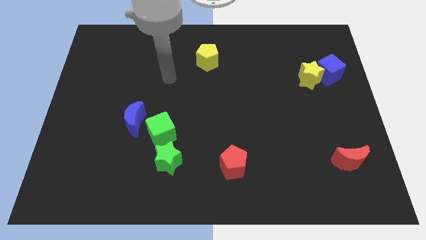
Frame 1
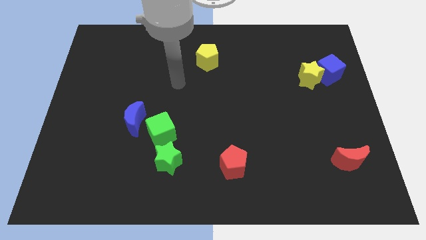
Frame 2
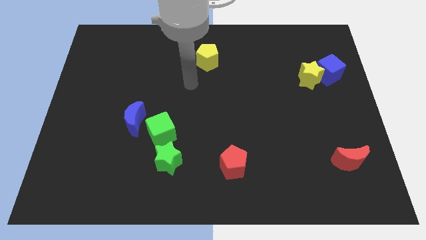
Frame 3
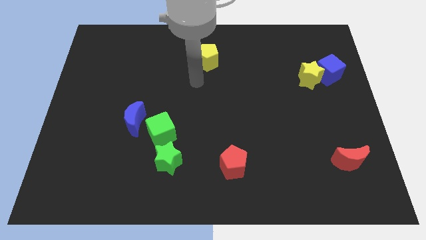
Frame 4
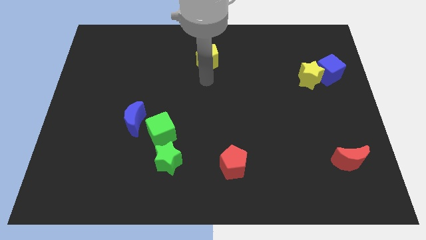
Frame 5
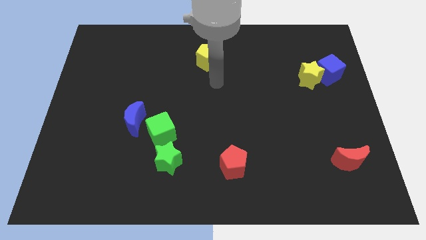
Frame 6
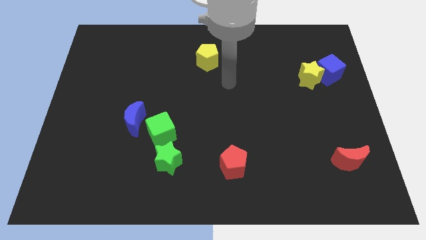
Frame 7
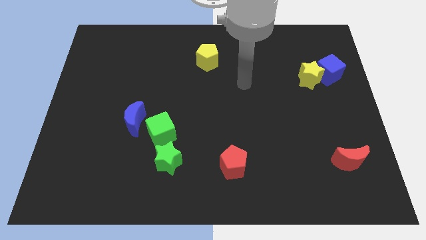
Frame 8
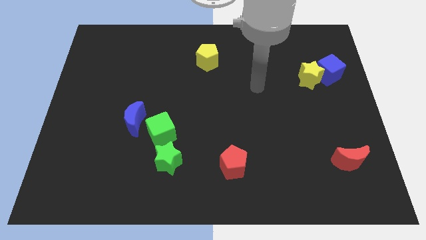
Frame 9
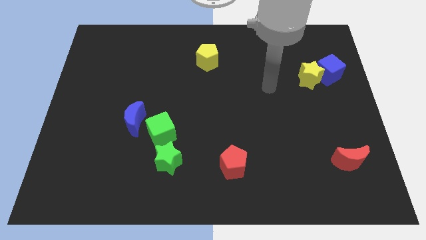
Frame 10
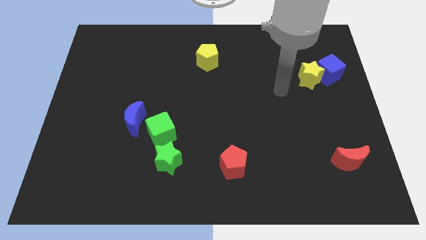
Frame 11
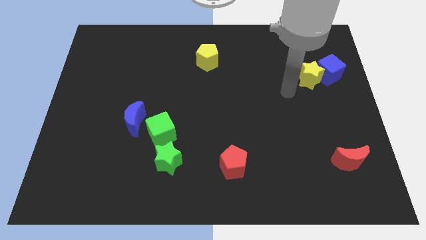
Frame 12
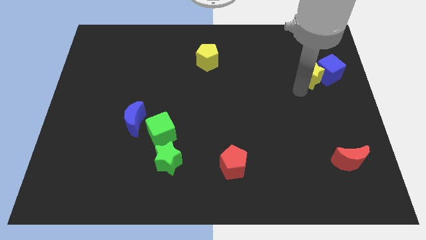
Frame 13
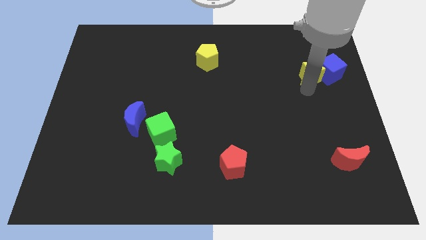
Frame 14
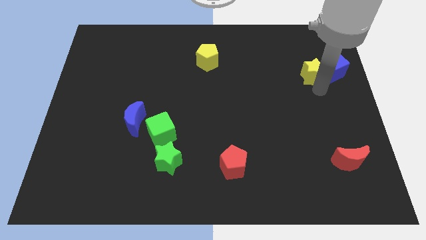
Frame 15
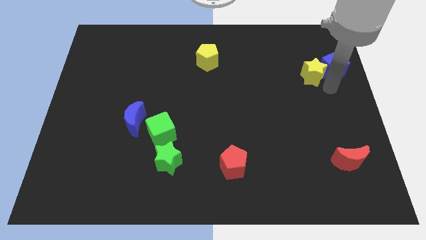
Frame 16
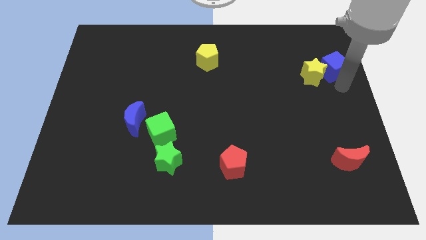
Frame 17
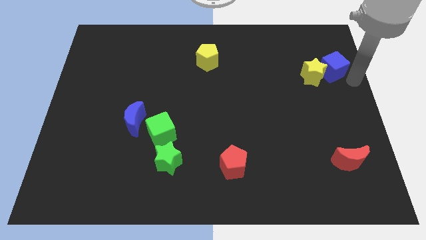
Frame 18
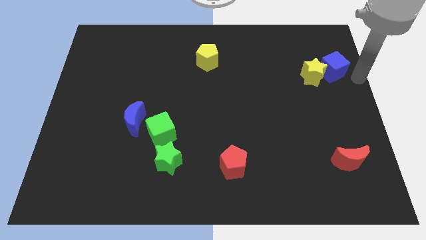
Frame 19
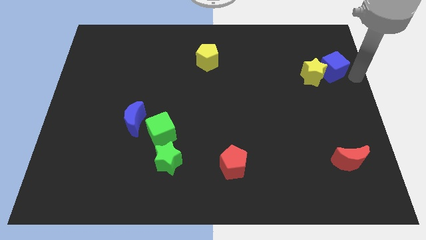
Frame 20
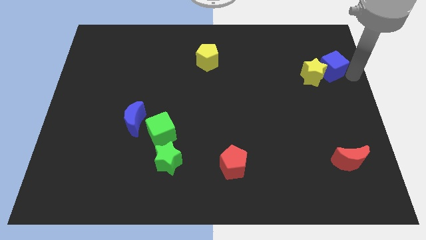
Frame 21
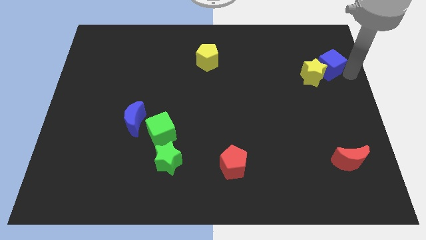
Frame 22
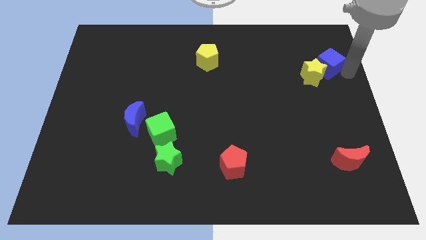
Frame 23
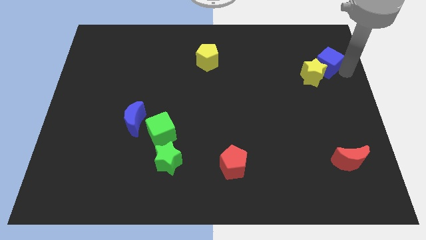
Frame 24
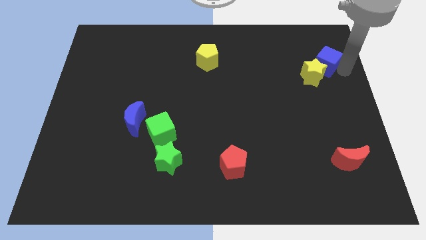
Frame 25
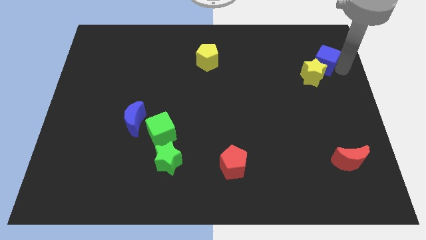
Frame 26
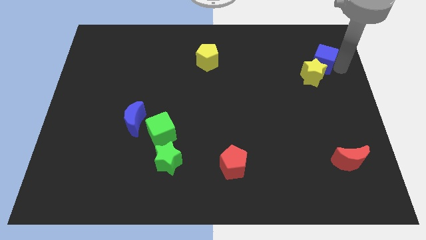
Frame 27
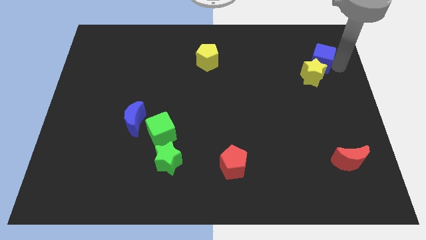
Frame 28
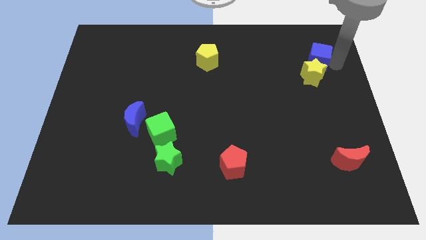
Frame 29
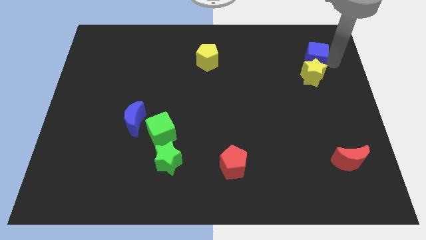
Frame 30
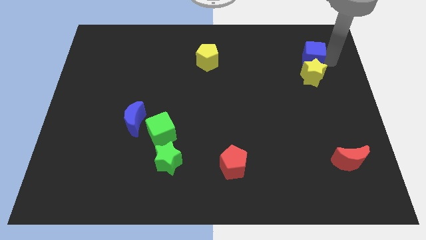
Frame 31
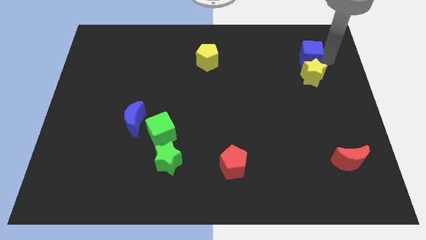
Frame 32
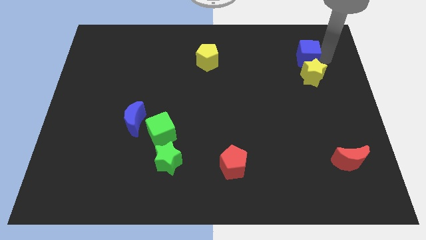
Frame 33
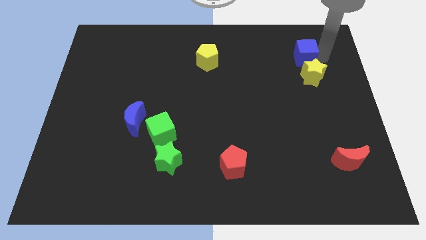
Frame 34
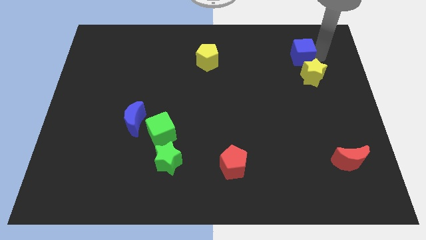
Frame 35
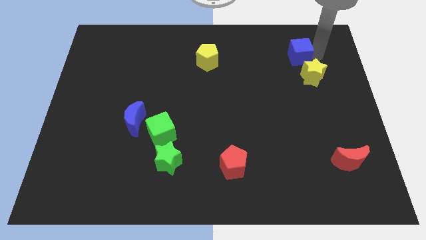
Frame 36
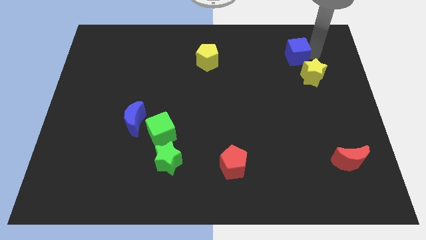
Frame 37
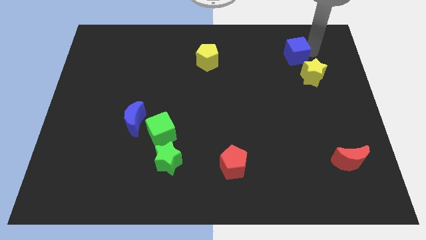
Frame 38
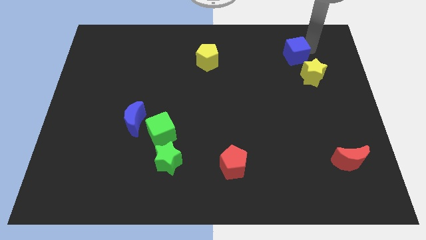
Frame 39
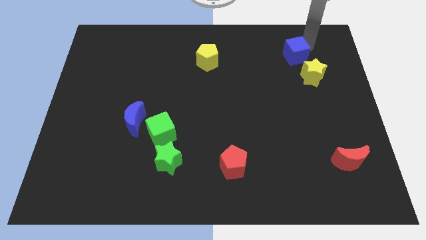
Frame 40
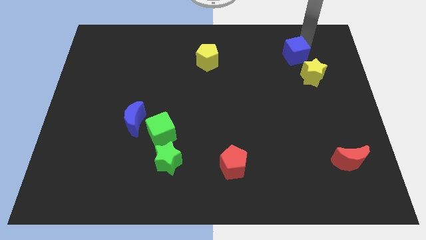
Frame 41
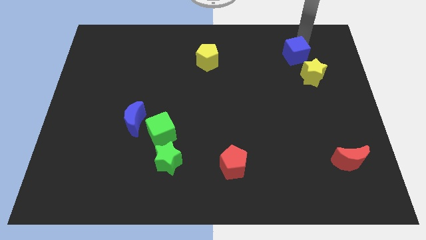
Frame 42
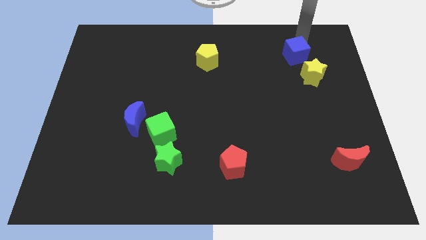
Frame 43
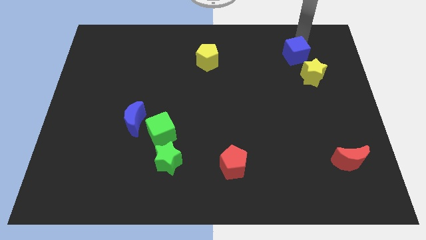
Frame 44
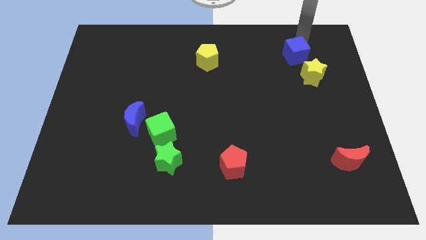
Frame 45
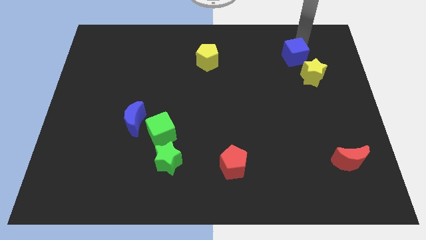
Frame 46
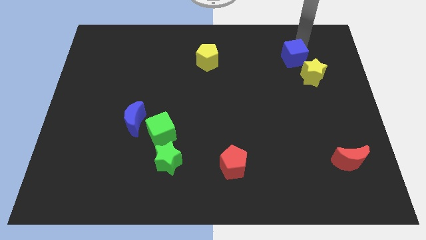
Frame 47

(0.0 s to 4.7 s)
slightly push the blue cube left

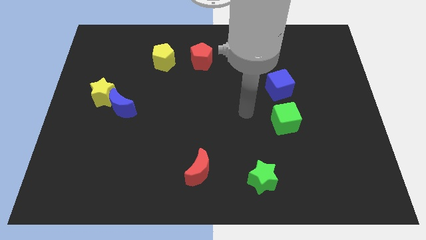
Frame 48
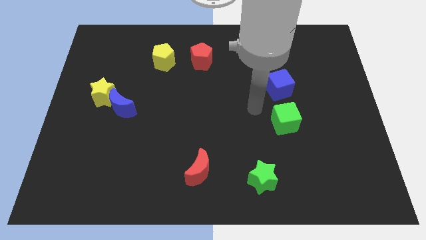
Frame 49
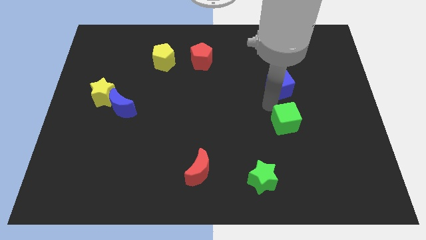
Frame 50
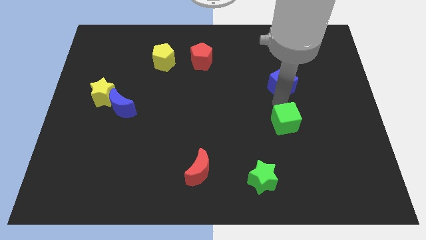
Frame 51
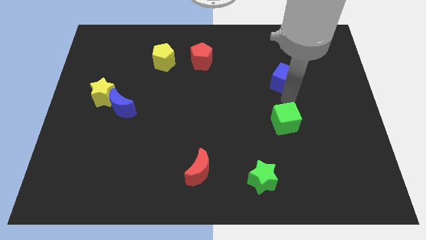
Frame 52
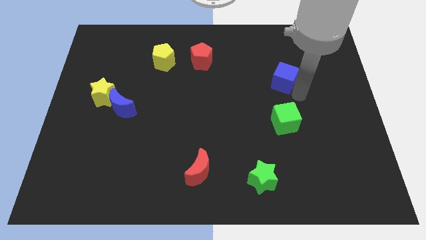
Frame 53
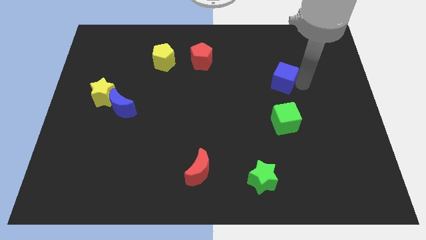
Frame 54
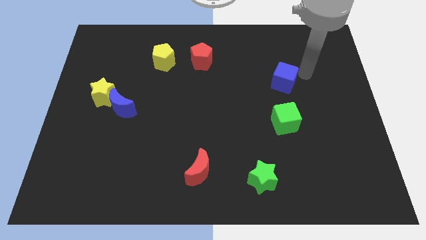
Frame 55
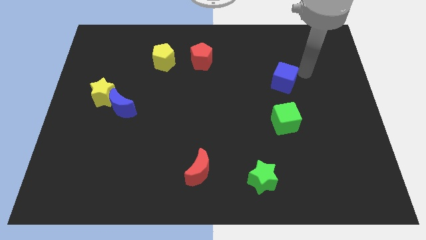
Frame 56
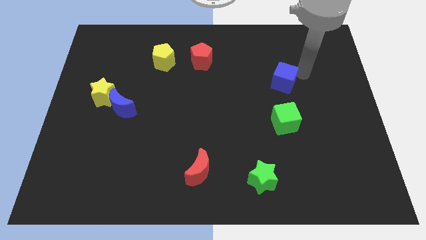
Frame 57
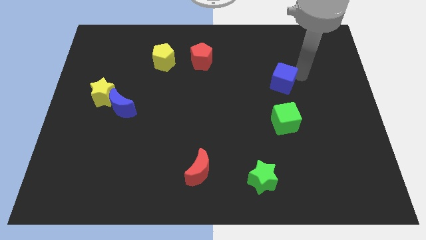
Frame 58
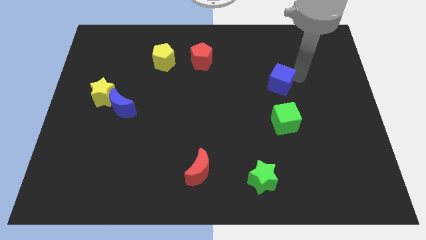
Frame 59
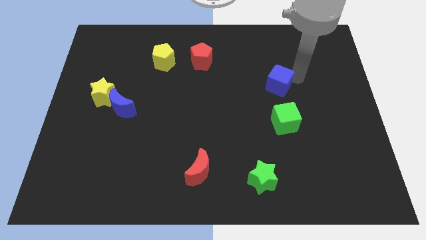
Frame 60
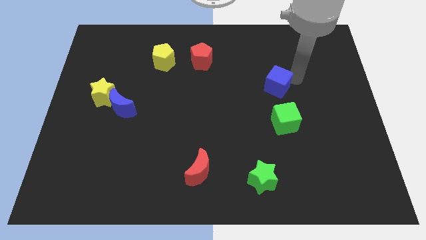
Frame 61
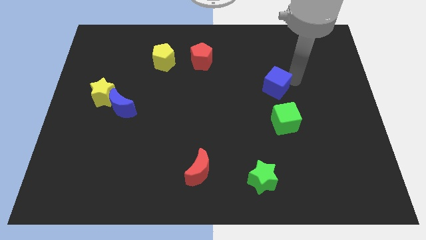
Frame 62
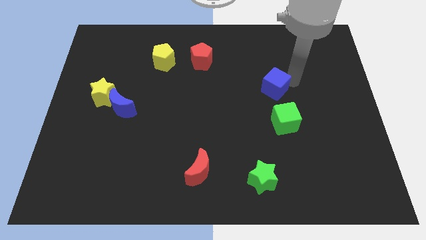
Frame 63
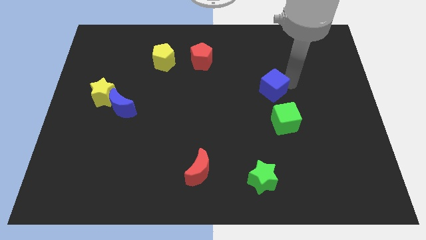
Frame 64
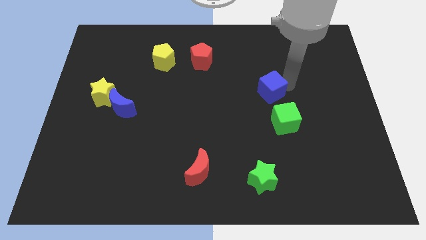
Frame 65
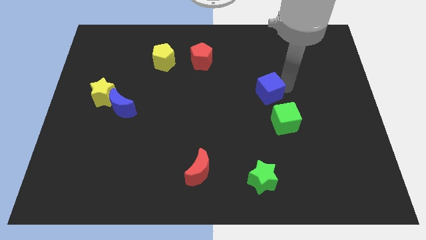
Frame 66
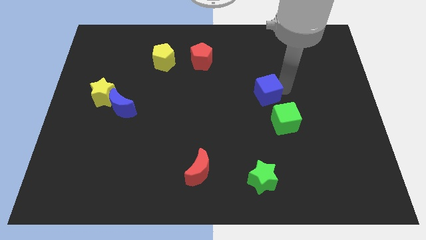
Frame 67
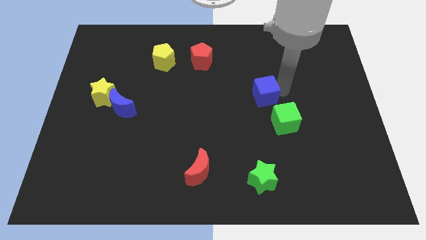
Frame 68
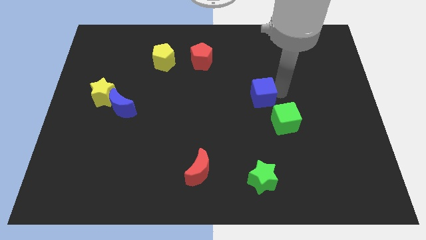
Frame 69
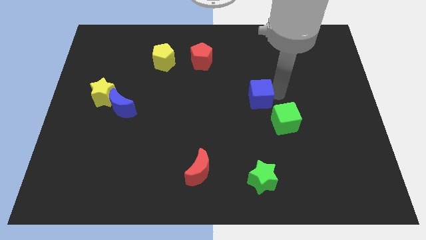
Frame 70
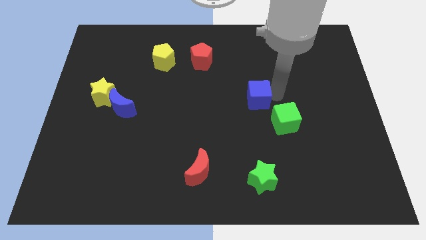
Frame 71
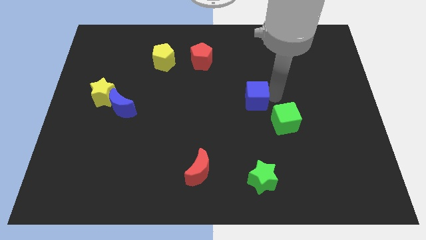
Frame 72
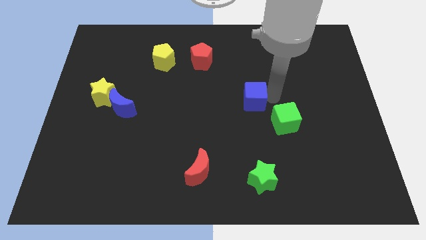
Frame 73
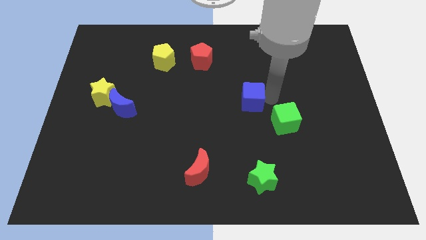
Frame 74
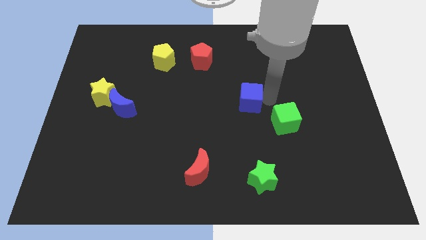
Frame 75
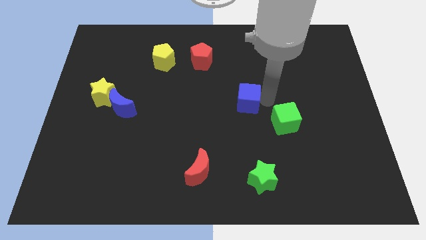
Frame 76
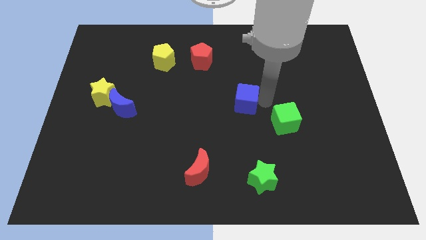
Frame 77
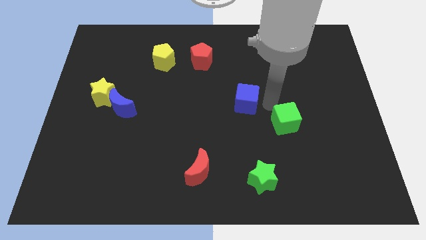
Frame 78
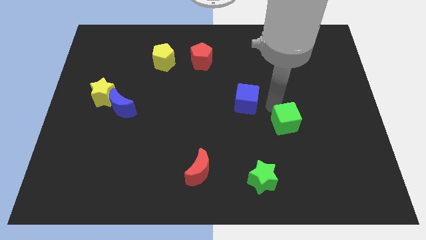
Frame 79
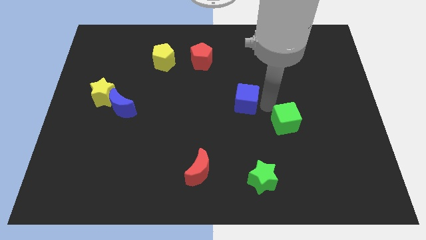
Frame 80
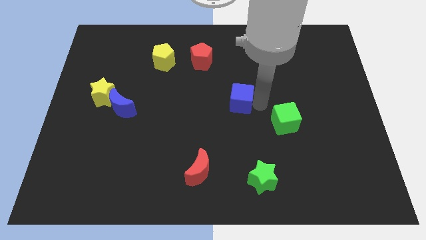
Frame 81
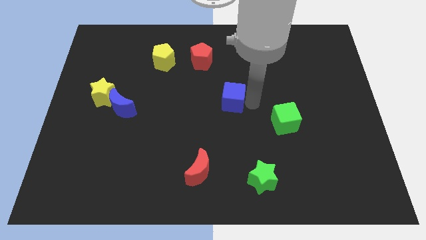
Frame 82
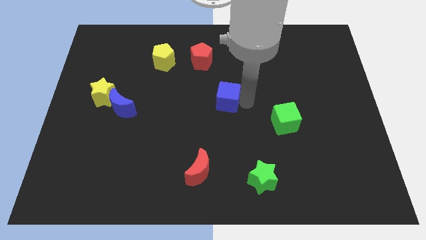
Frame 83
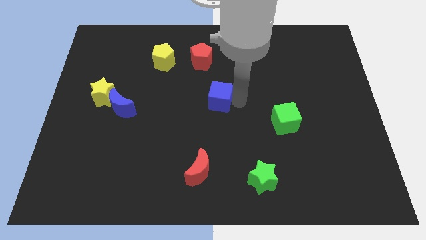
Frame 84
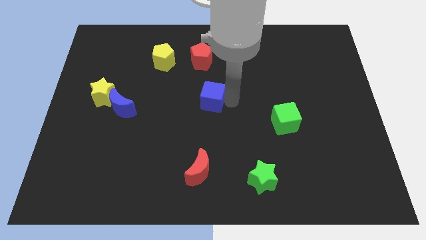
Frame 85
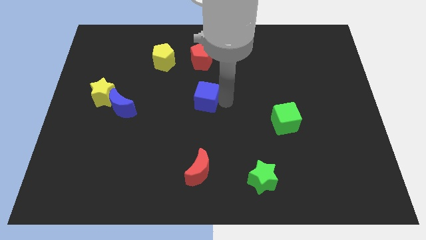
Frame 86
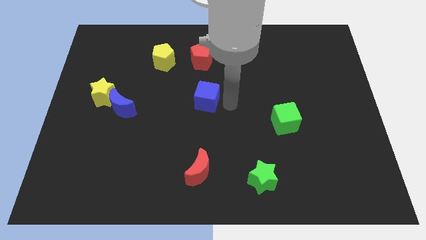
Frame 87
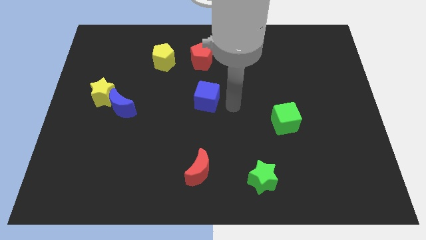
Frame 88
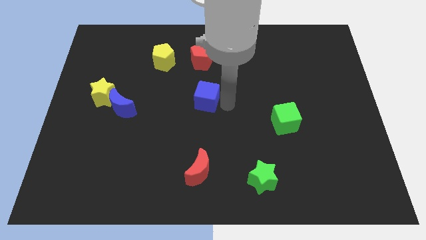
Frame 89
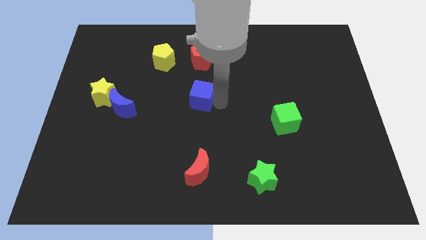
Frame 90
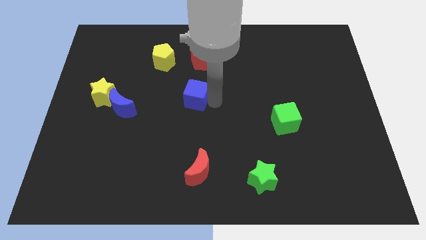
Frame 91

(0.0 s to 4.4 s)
move the blue cube left
